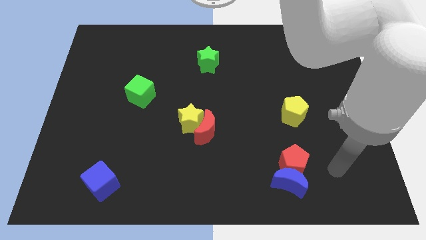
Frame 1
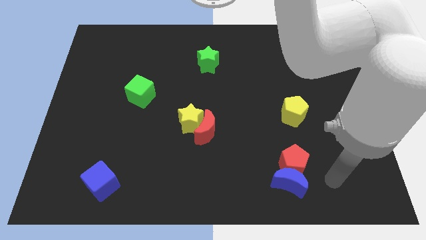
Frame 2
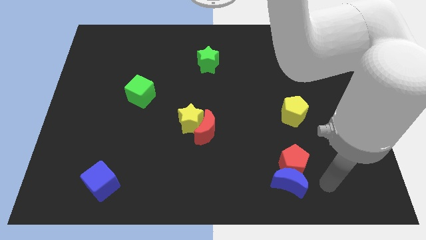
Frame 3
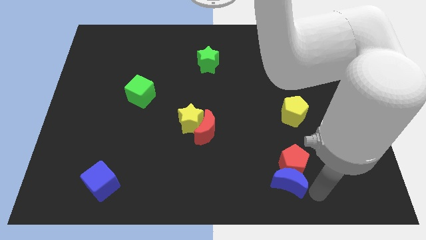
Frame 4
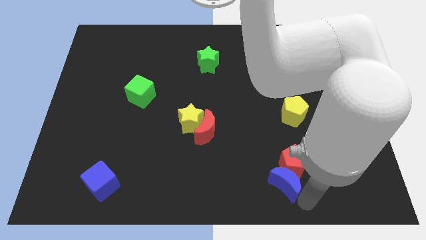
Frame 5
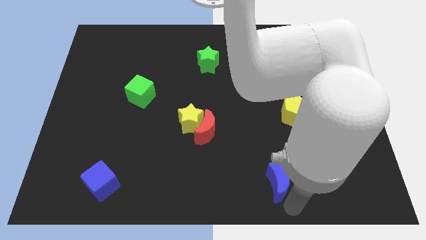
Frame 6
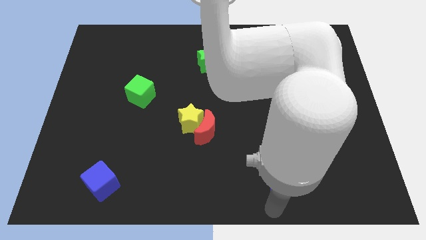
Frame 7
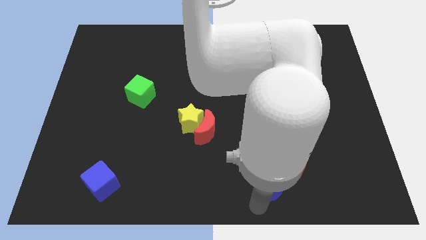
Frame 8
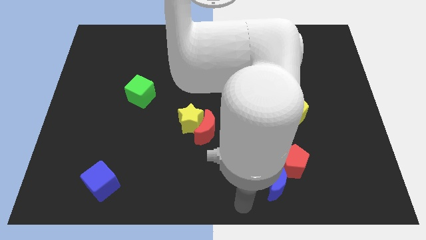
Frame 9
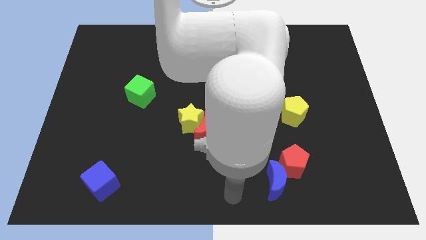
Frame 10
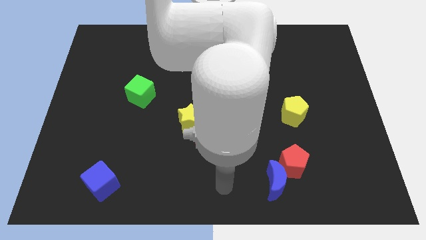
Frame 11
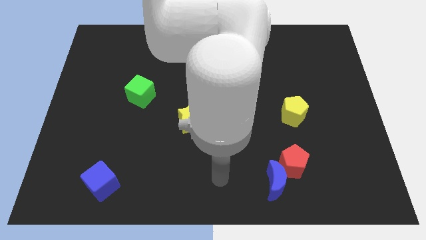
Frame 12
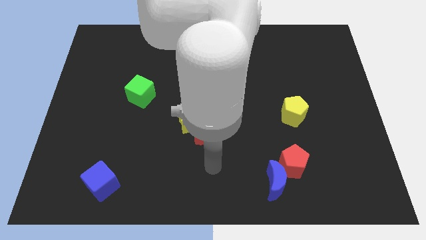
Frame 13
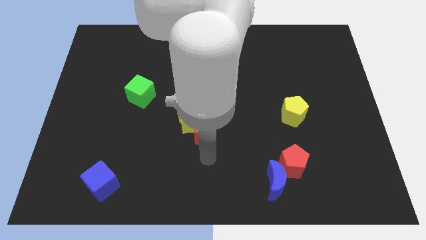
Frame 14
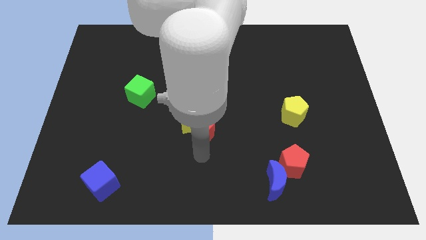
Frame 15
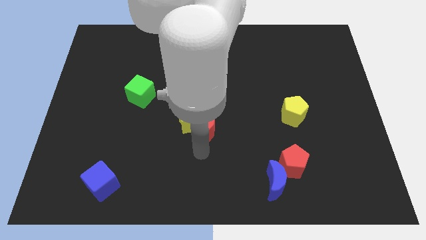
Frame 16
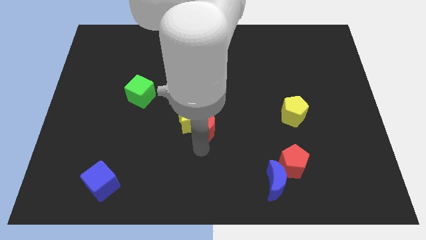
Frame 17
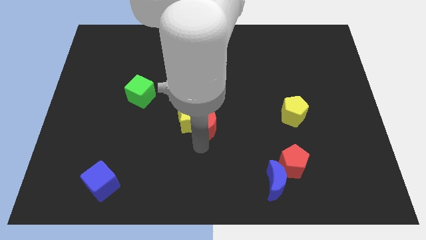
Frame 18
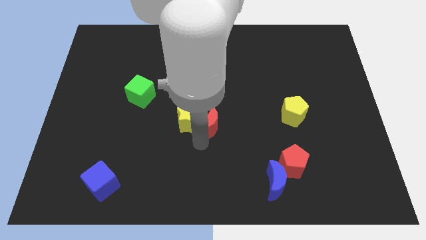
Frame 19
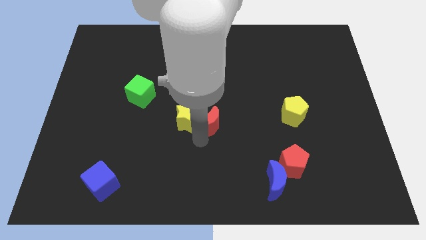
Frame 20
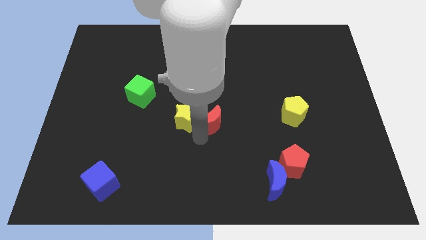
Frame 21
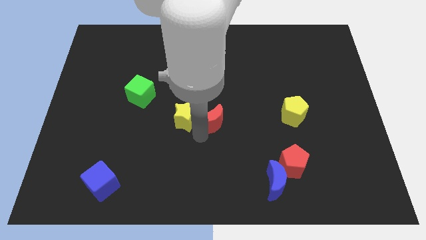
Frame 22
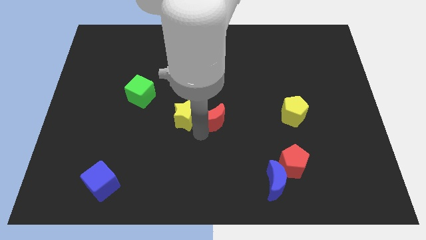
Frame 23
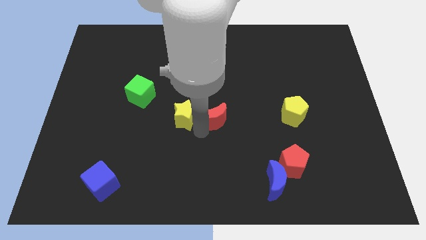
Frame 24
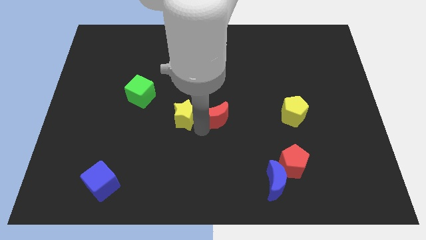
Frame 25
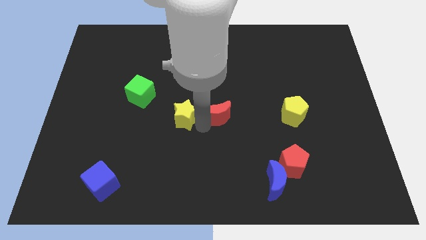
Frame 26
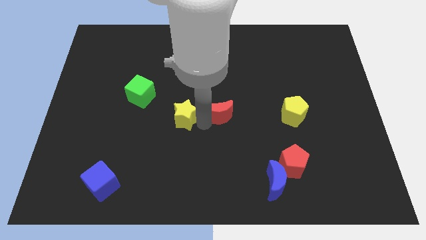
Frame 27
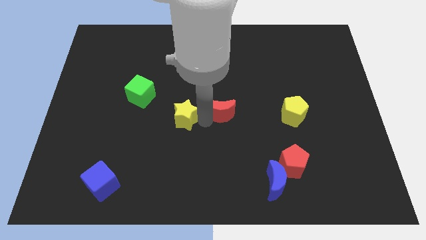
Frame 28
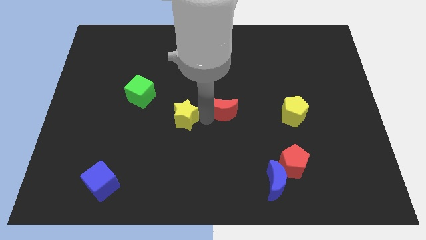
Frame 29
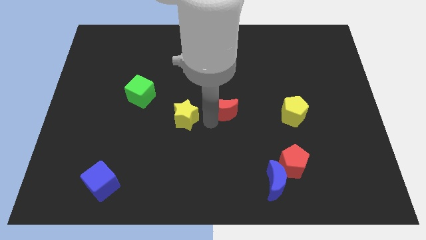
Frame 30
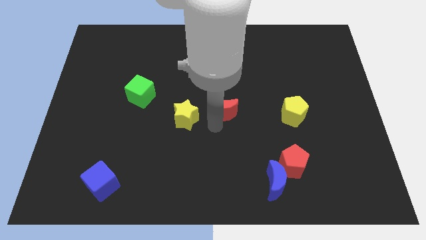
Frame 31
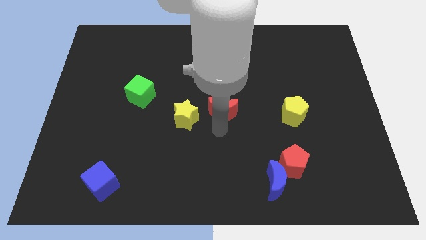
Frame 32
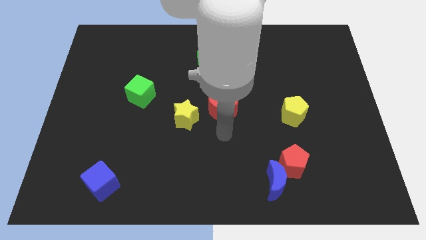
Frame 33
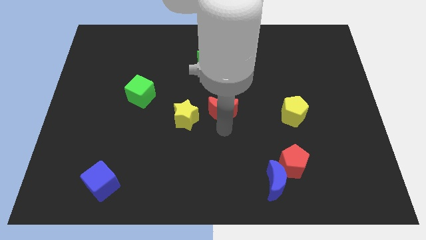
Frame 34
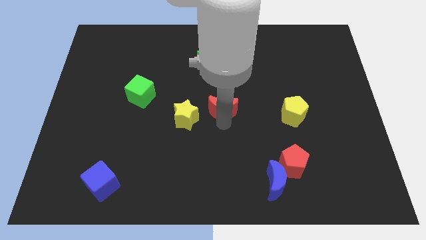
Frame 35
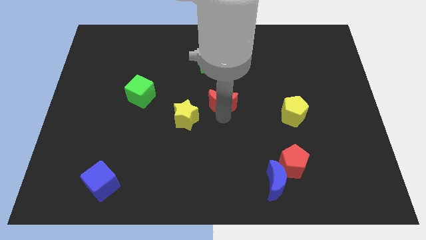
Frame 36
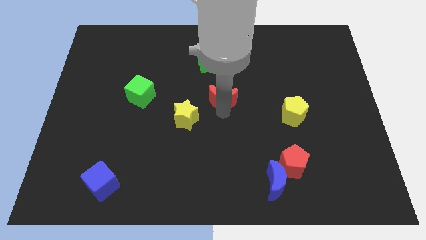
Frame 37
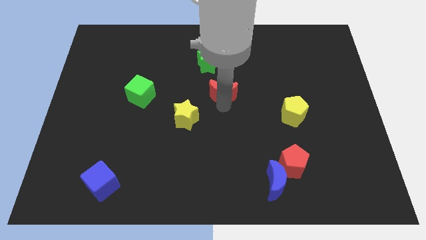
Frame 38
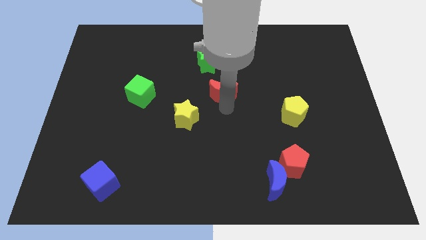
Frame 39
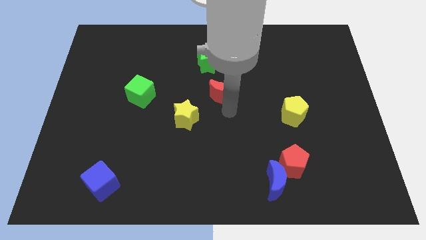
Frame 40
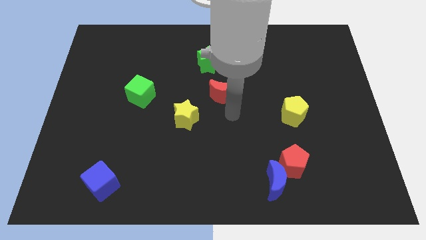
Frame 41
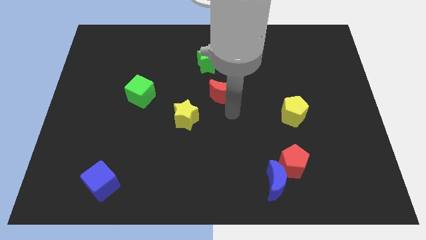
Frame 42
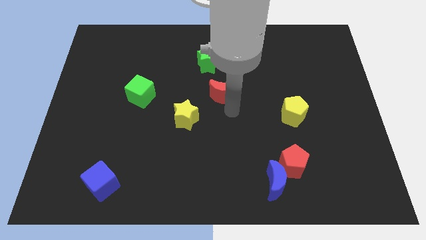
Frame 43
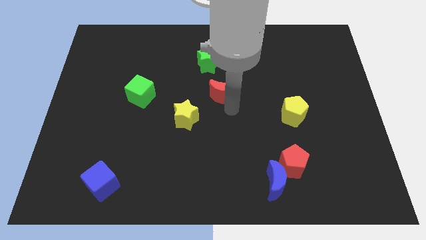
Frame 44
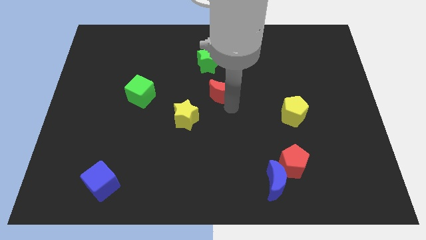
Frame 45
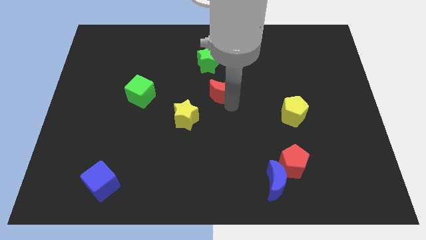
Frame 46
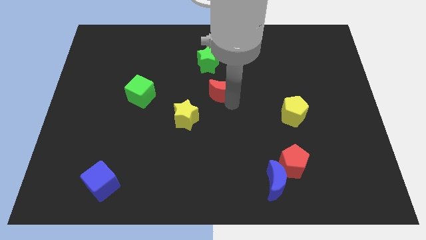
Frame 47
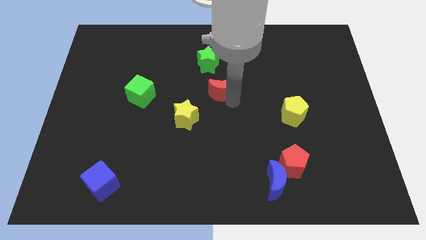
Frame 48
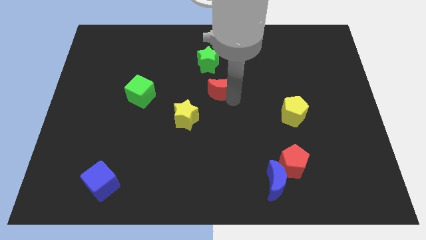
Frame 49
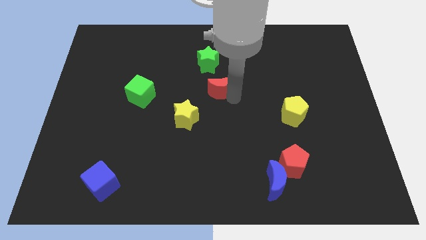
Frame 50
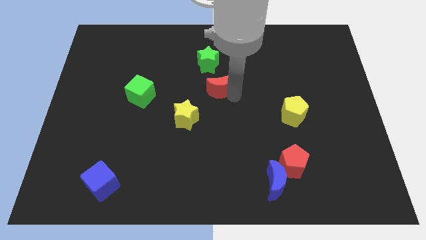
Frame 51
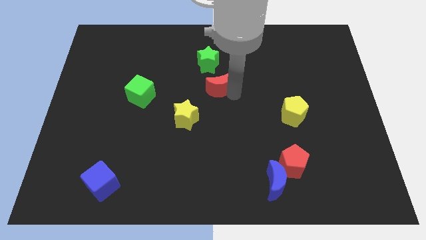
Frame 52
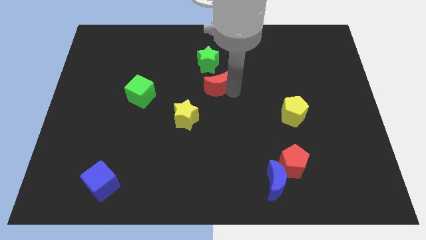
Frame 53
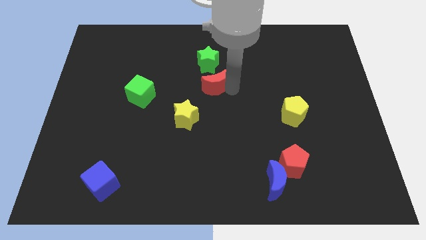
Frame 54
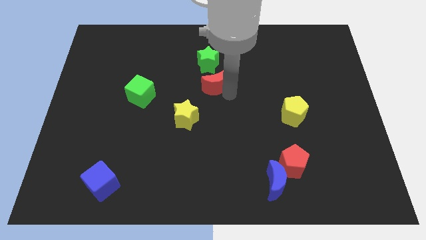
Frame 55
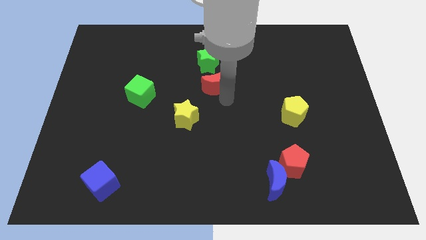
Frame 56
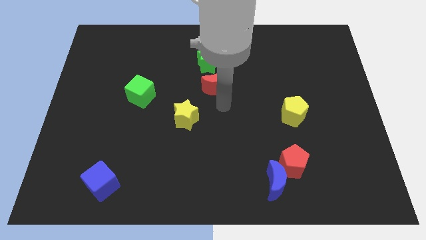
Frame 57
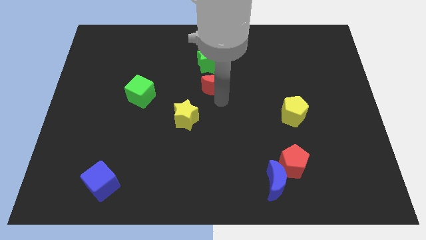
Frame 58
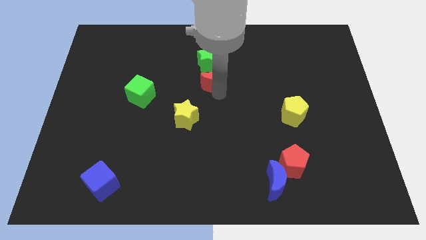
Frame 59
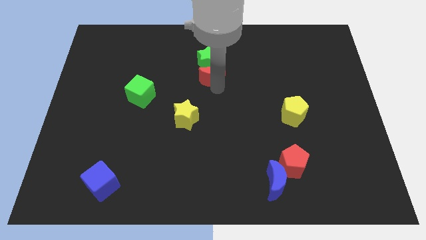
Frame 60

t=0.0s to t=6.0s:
slide the red moon next to the green star

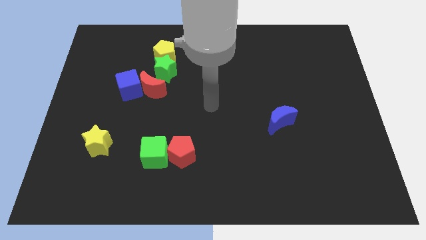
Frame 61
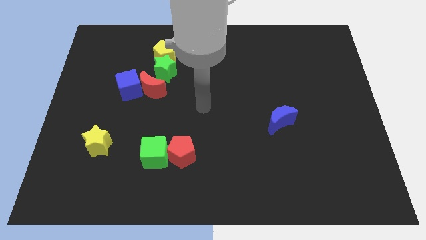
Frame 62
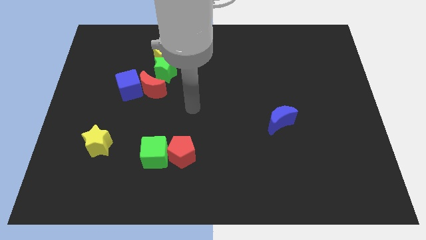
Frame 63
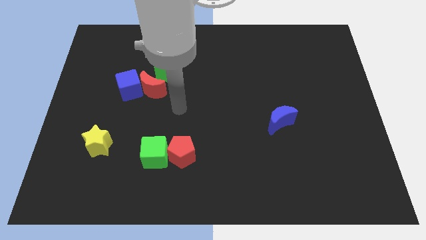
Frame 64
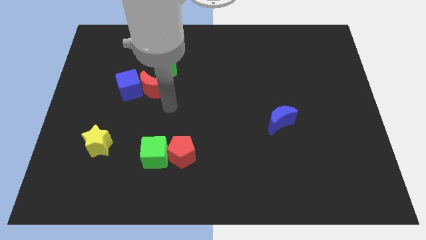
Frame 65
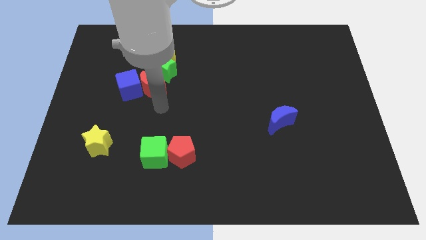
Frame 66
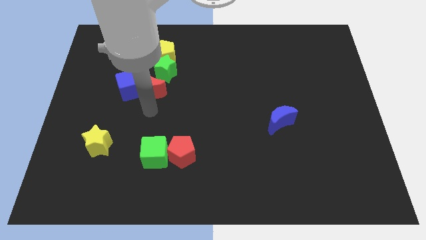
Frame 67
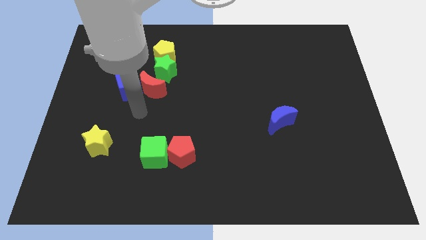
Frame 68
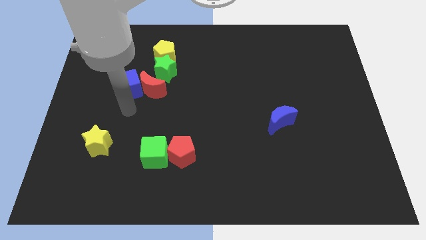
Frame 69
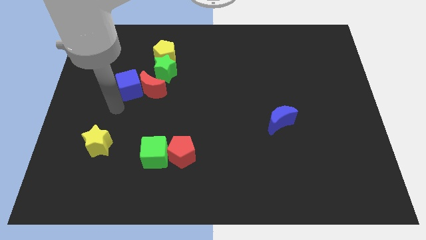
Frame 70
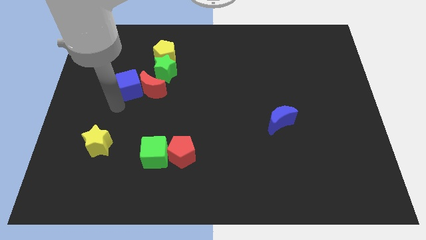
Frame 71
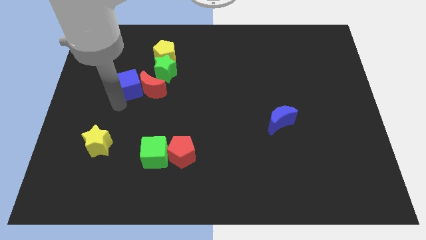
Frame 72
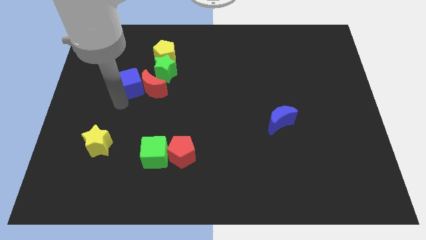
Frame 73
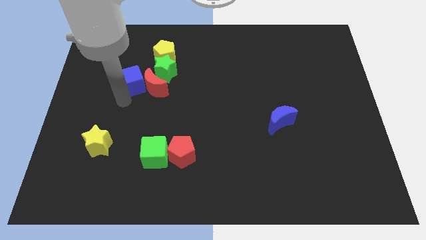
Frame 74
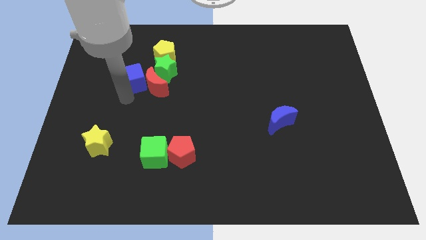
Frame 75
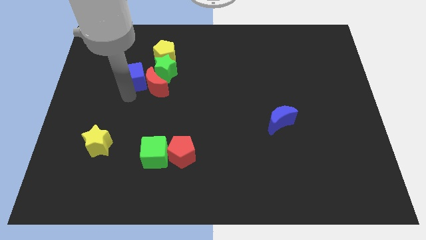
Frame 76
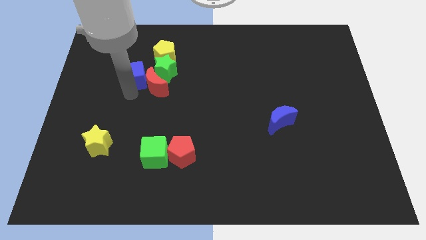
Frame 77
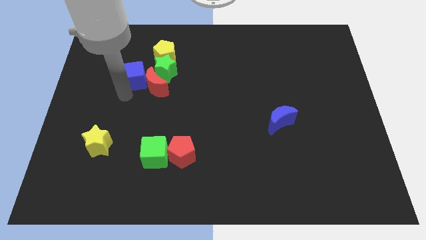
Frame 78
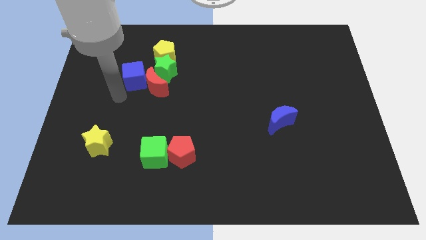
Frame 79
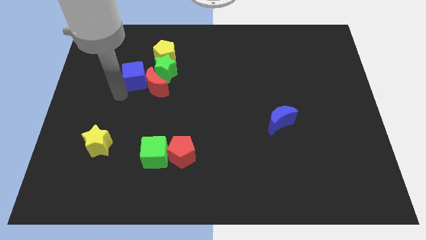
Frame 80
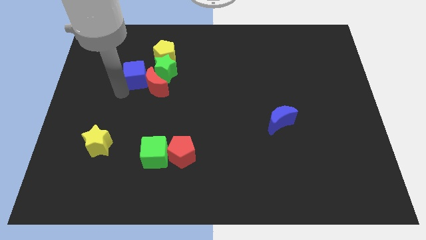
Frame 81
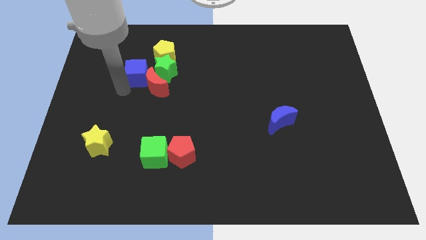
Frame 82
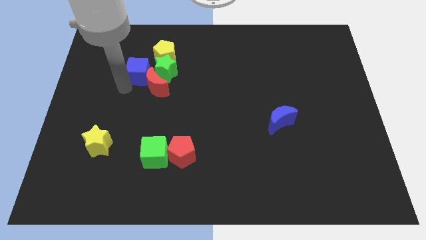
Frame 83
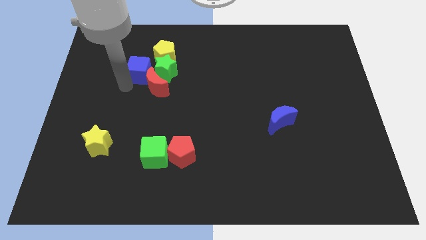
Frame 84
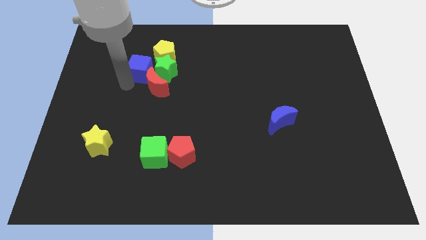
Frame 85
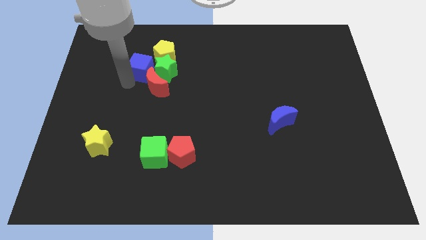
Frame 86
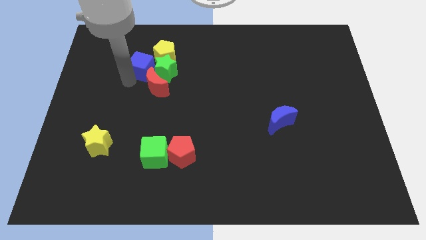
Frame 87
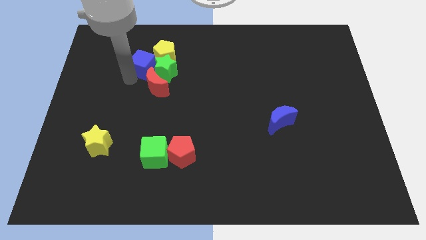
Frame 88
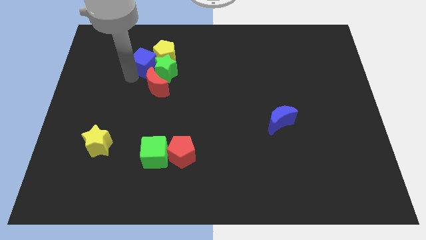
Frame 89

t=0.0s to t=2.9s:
move the blue cube next to the yellow pentagon
